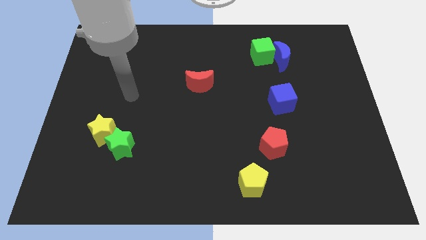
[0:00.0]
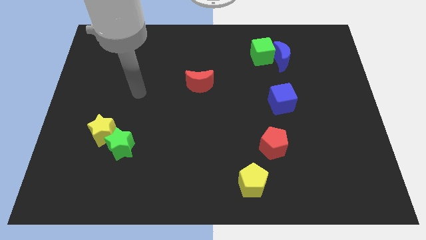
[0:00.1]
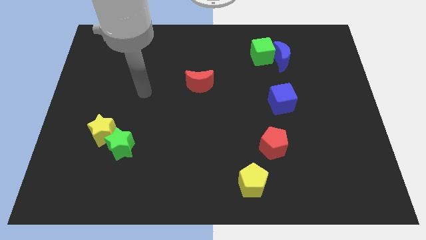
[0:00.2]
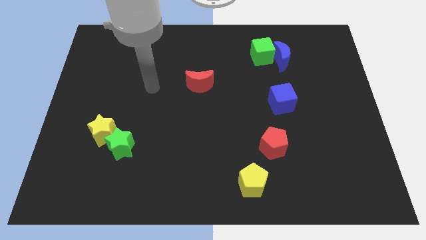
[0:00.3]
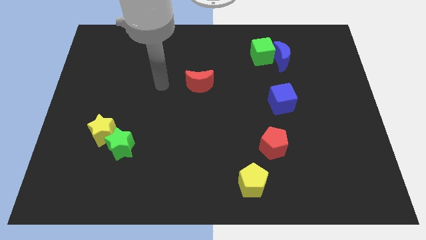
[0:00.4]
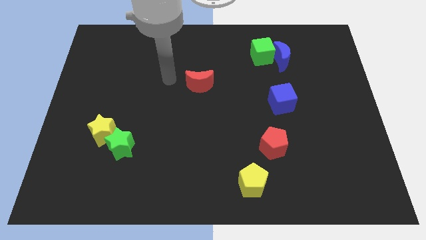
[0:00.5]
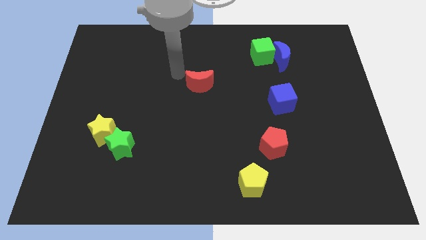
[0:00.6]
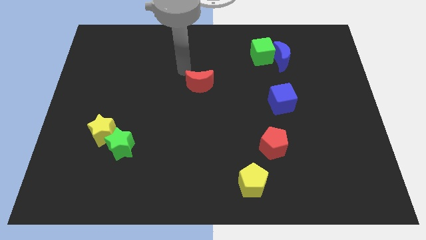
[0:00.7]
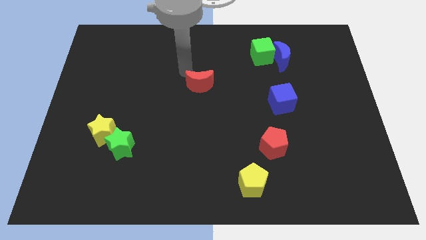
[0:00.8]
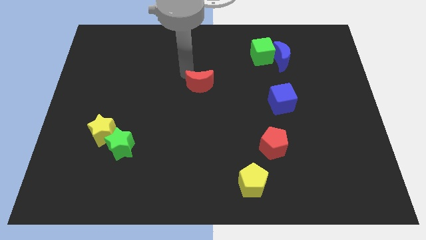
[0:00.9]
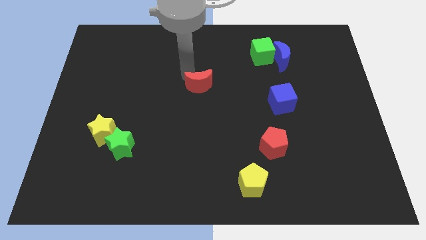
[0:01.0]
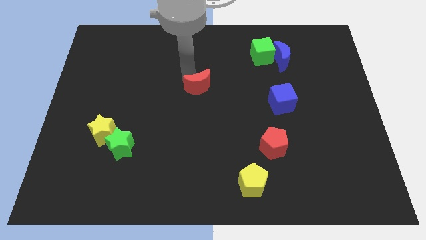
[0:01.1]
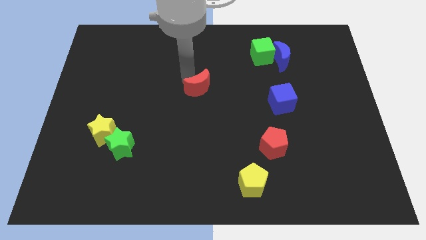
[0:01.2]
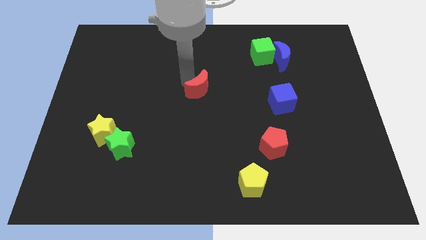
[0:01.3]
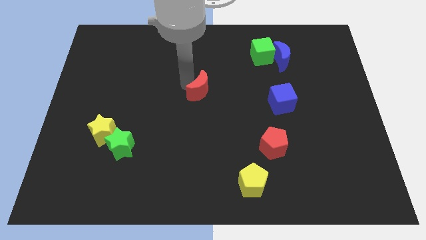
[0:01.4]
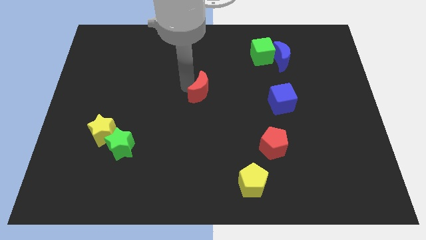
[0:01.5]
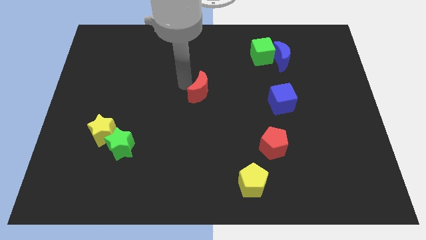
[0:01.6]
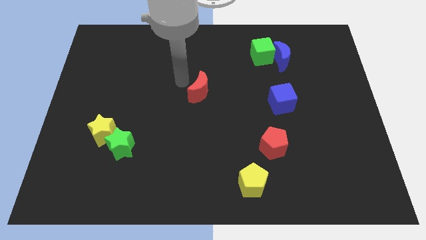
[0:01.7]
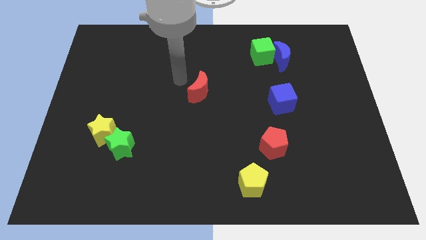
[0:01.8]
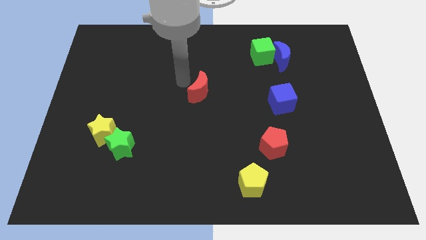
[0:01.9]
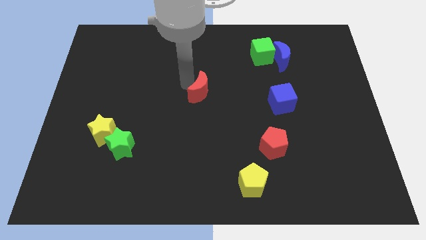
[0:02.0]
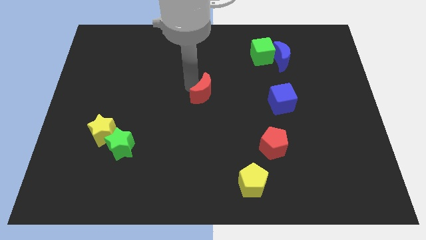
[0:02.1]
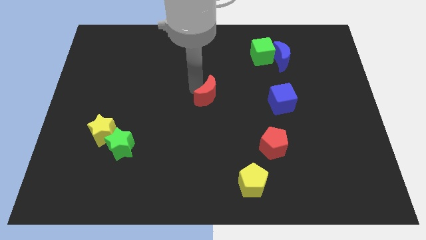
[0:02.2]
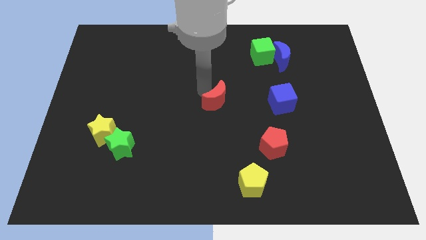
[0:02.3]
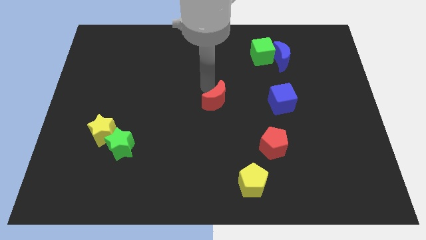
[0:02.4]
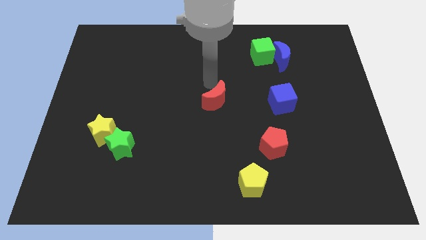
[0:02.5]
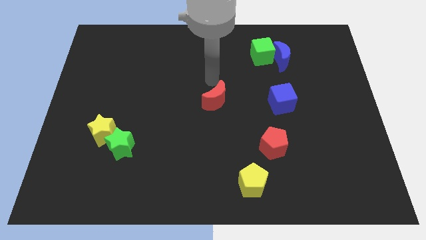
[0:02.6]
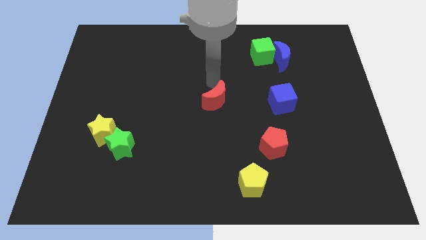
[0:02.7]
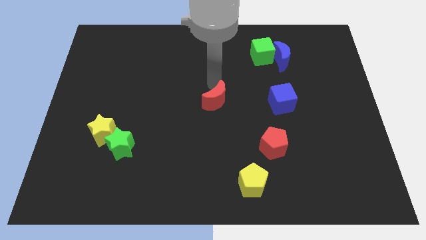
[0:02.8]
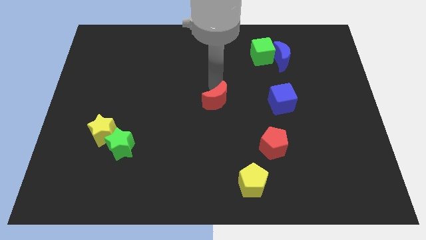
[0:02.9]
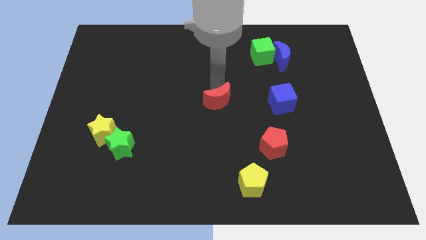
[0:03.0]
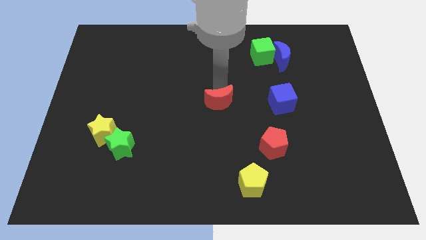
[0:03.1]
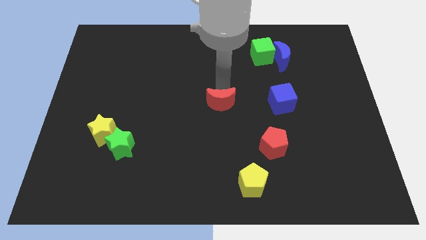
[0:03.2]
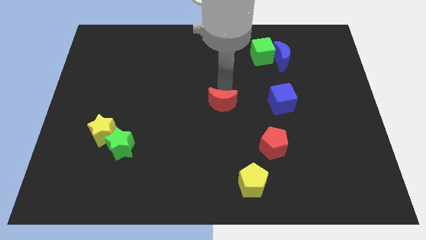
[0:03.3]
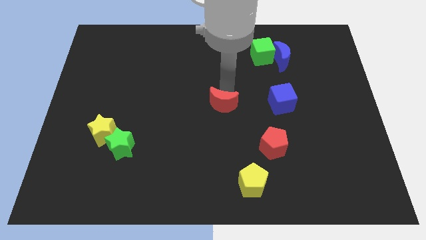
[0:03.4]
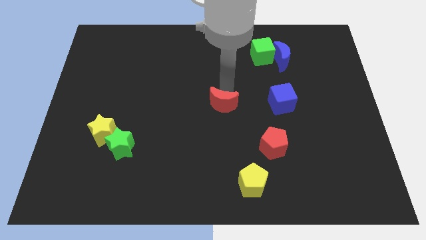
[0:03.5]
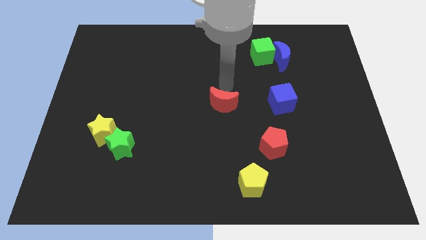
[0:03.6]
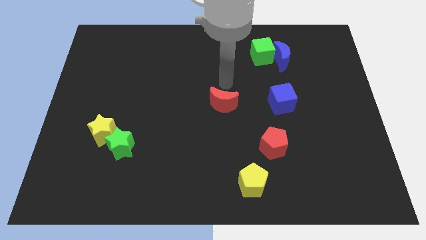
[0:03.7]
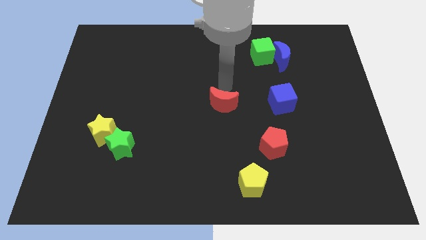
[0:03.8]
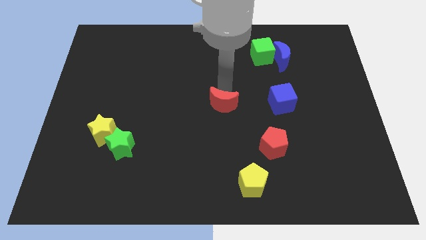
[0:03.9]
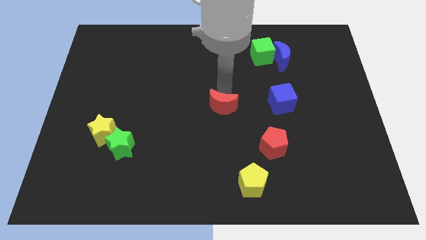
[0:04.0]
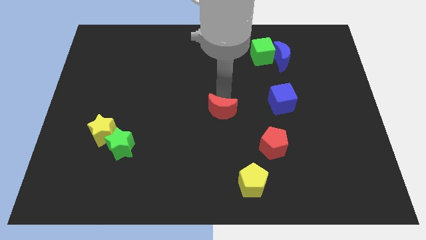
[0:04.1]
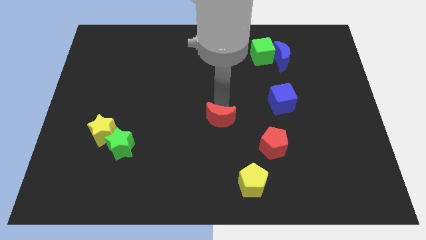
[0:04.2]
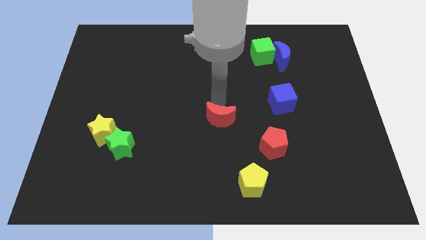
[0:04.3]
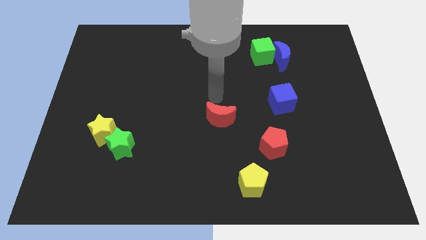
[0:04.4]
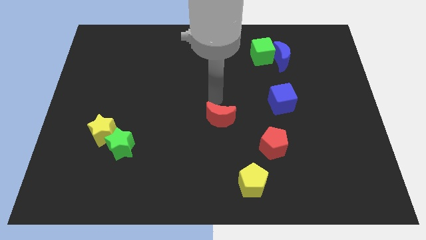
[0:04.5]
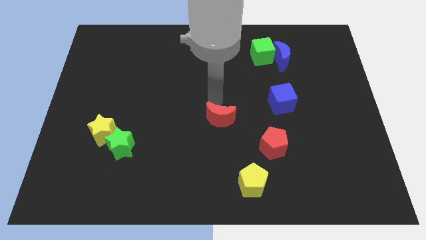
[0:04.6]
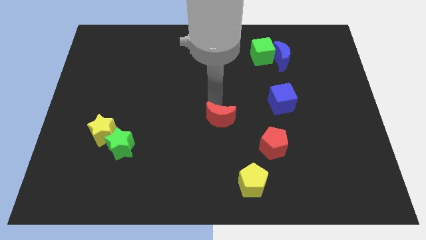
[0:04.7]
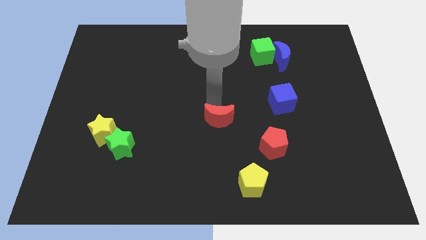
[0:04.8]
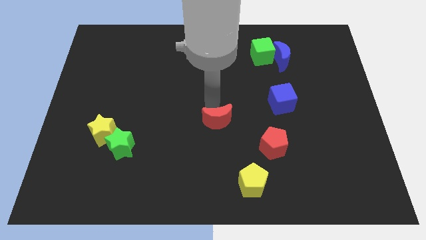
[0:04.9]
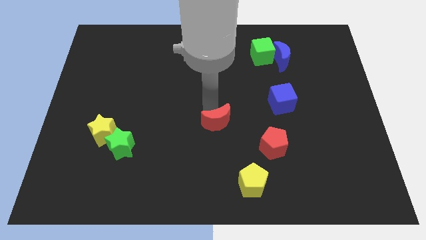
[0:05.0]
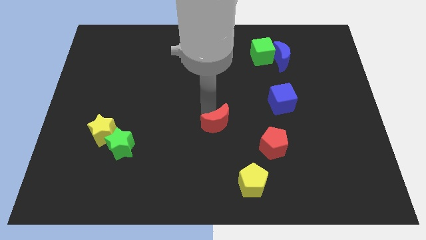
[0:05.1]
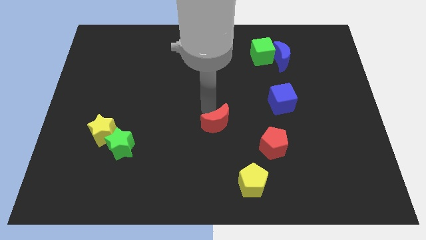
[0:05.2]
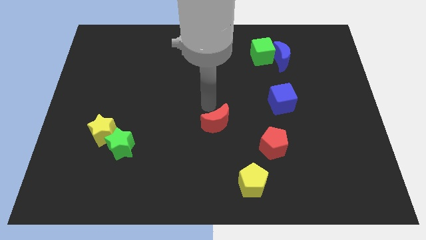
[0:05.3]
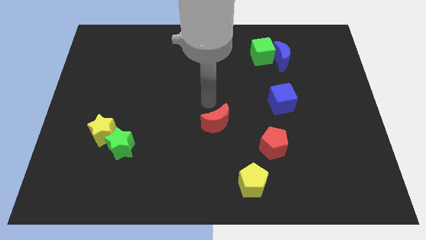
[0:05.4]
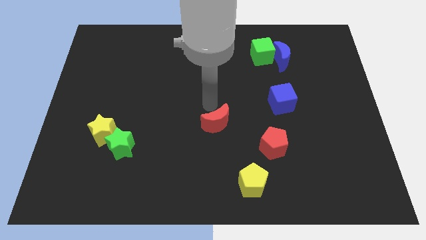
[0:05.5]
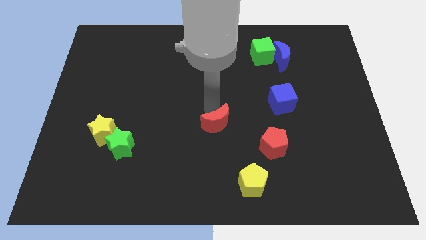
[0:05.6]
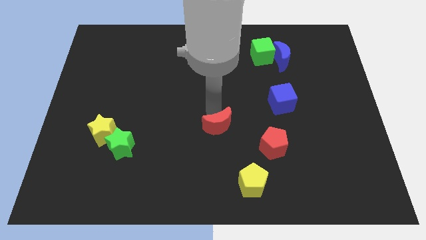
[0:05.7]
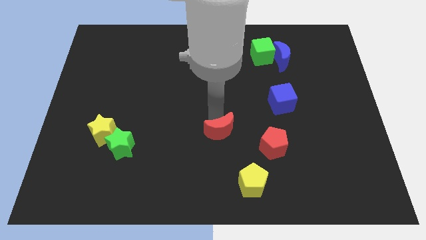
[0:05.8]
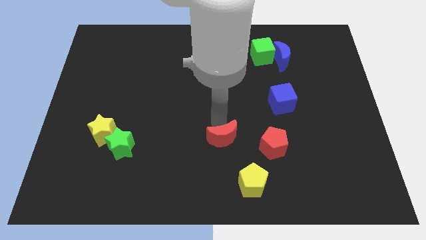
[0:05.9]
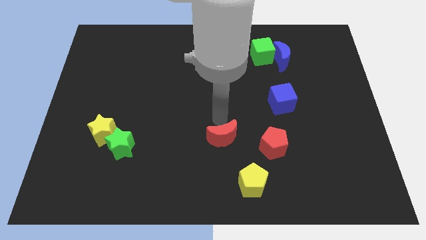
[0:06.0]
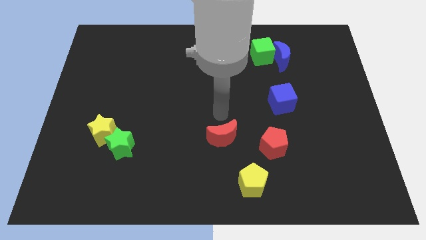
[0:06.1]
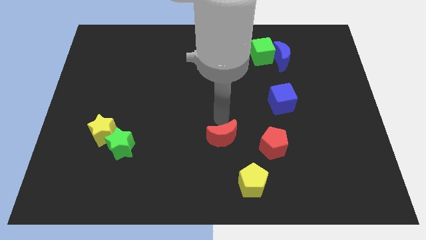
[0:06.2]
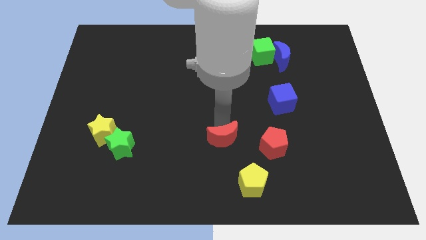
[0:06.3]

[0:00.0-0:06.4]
slide the red moon to the top left side of the yellow pentagon

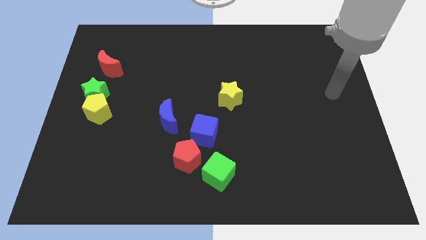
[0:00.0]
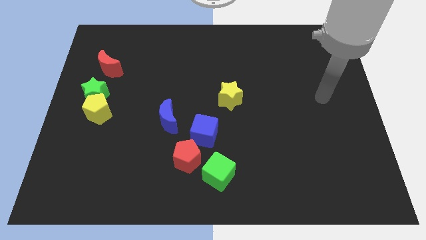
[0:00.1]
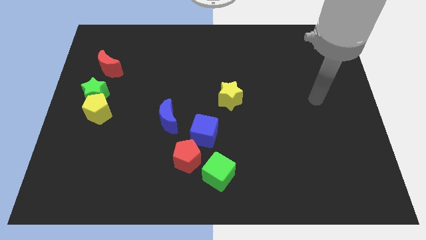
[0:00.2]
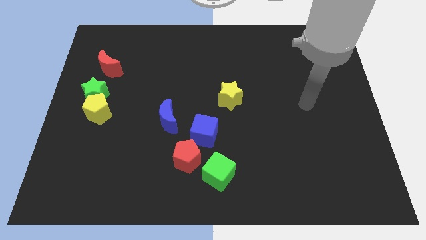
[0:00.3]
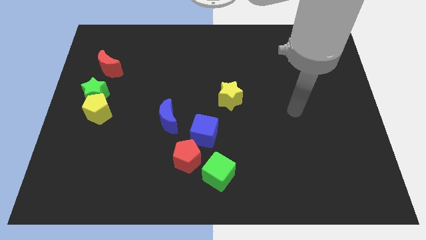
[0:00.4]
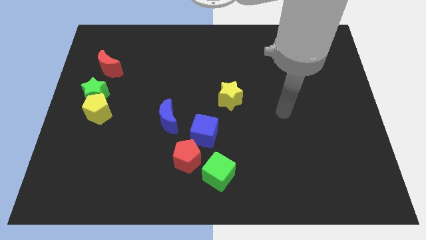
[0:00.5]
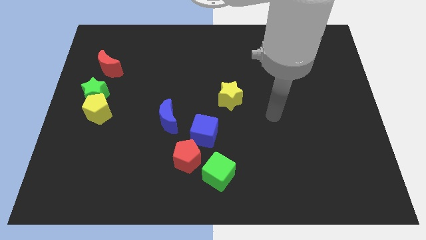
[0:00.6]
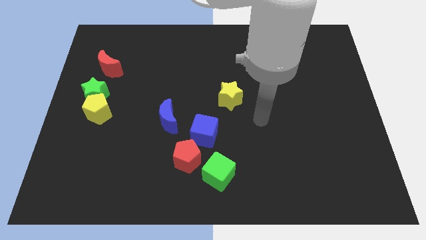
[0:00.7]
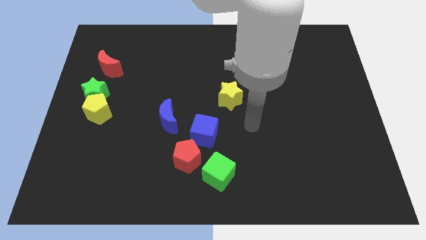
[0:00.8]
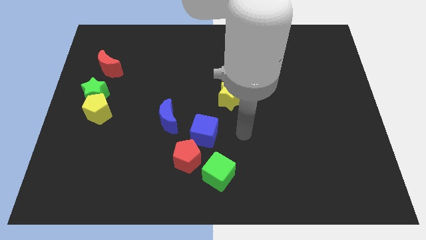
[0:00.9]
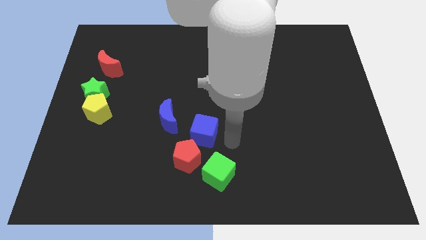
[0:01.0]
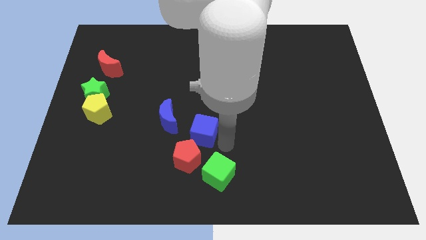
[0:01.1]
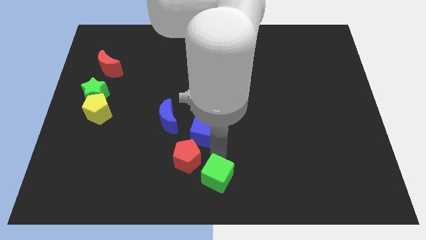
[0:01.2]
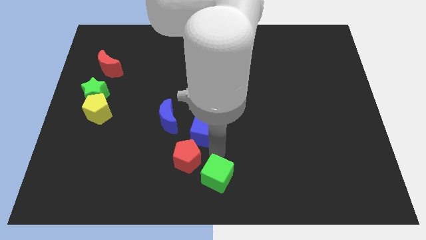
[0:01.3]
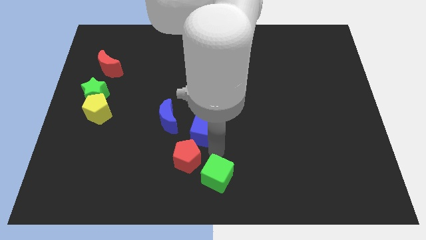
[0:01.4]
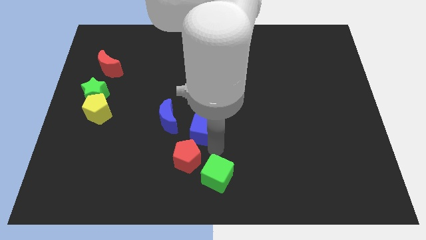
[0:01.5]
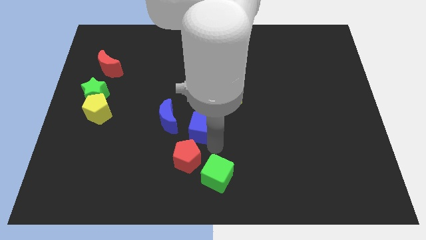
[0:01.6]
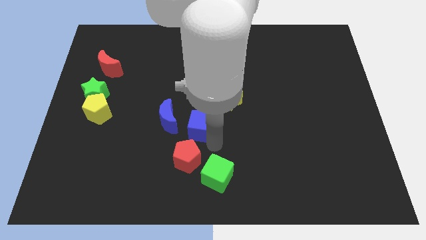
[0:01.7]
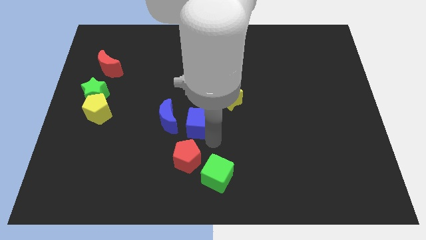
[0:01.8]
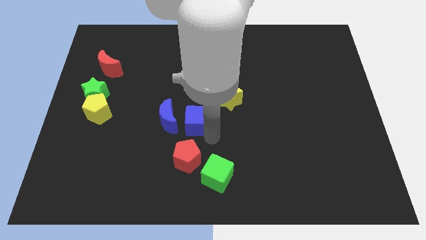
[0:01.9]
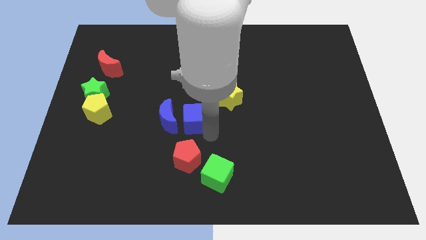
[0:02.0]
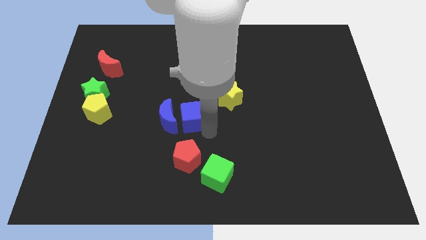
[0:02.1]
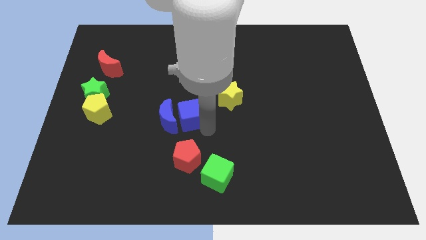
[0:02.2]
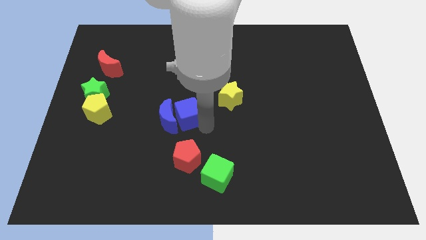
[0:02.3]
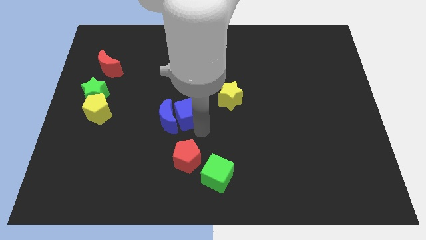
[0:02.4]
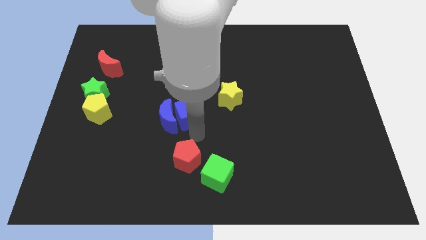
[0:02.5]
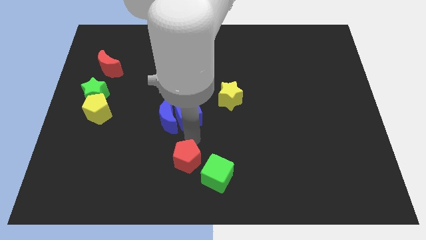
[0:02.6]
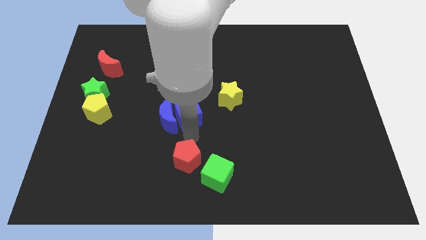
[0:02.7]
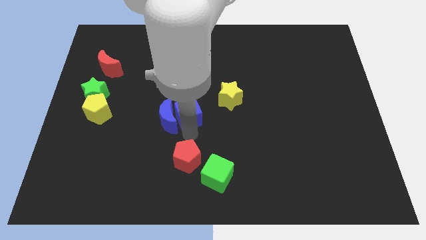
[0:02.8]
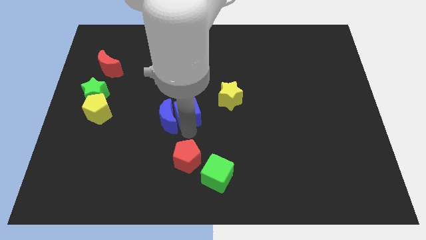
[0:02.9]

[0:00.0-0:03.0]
put the blue cube to the left side of the yellow star
